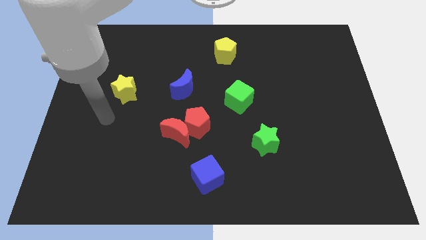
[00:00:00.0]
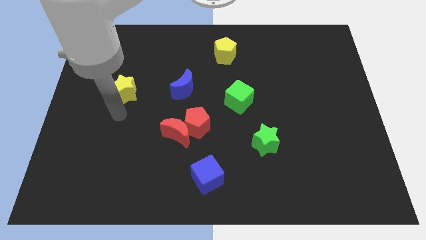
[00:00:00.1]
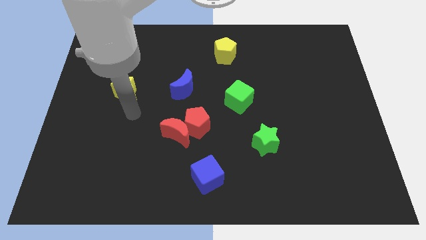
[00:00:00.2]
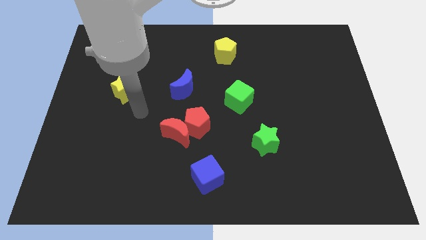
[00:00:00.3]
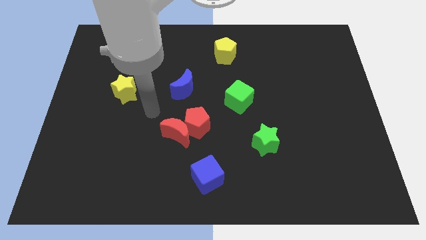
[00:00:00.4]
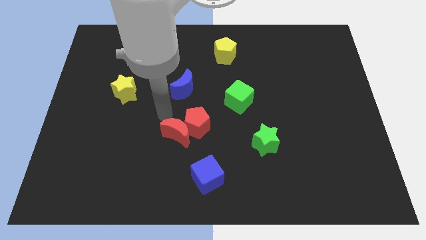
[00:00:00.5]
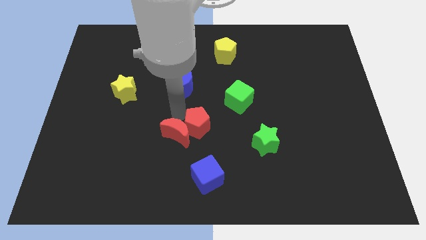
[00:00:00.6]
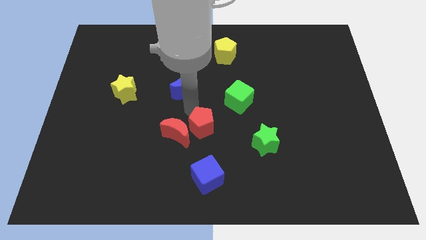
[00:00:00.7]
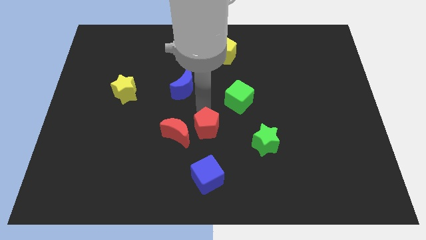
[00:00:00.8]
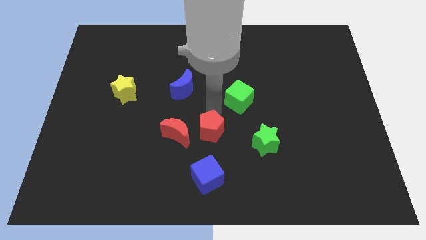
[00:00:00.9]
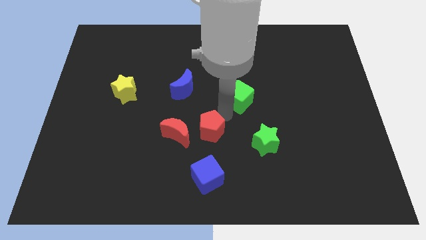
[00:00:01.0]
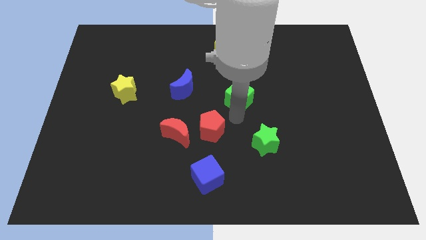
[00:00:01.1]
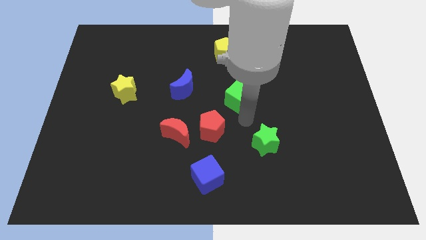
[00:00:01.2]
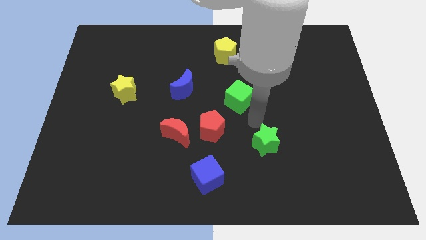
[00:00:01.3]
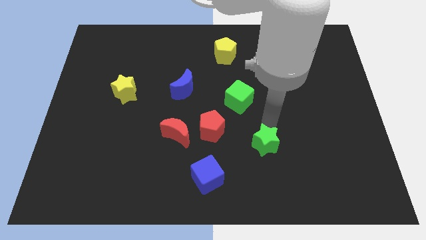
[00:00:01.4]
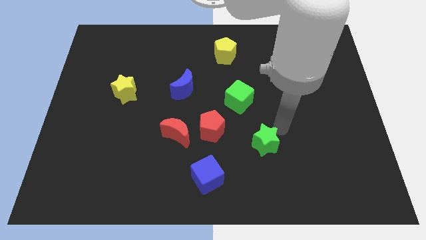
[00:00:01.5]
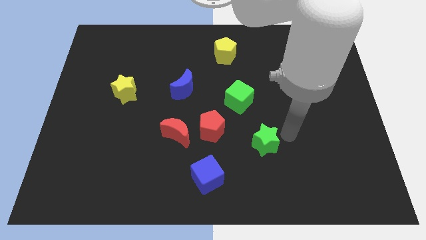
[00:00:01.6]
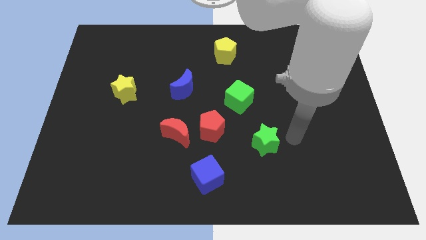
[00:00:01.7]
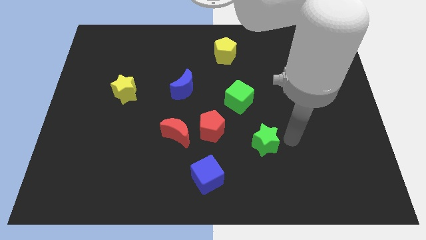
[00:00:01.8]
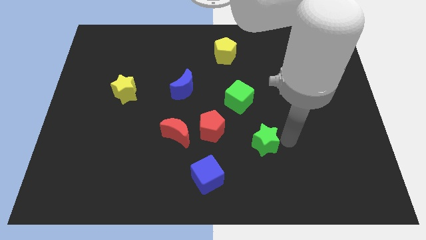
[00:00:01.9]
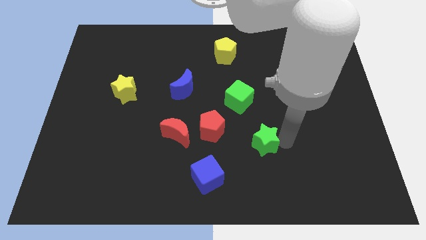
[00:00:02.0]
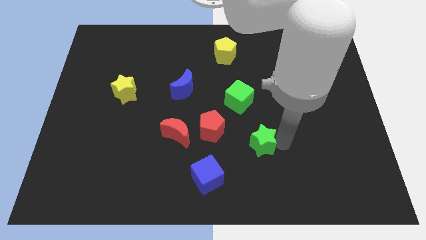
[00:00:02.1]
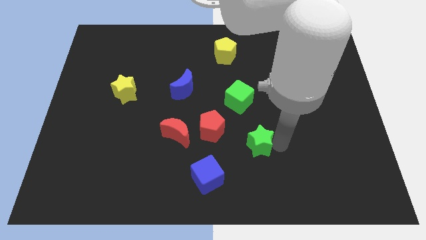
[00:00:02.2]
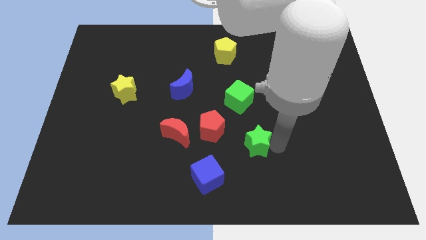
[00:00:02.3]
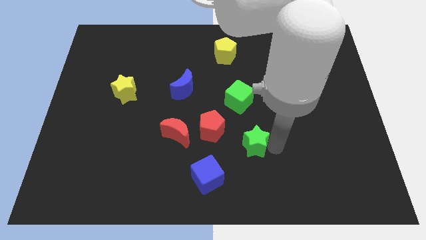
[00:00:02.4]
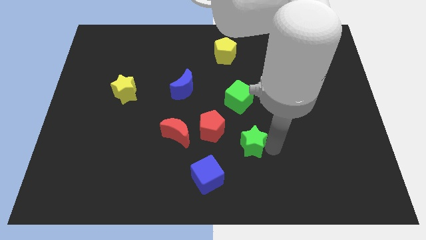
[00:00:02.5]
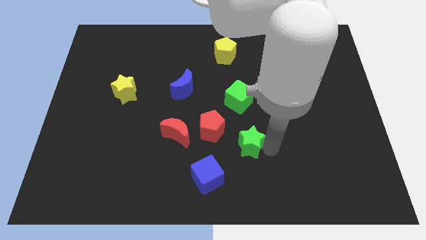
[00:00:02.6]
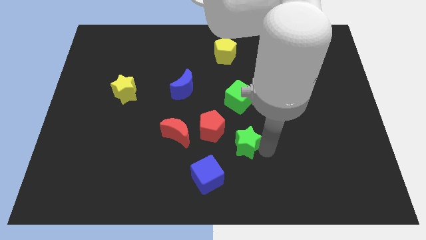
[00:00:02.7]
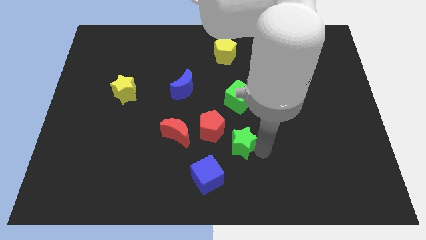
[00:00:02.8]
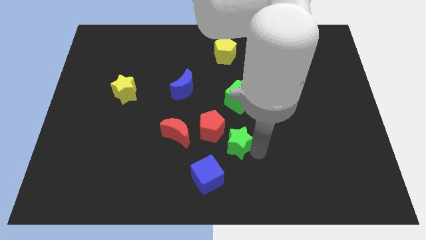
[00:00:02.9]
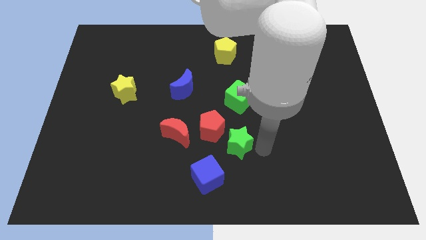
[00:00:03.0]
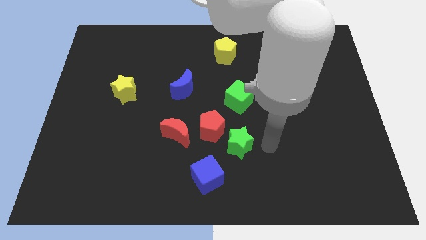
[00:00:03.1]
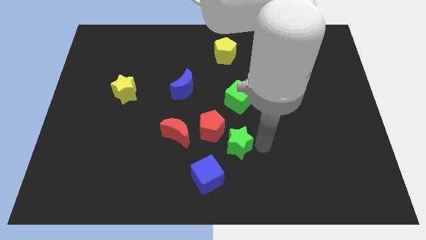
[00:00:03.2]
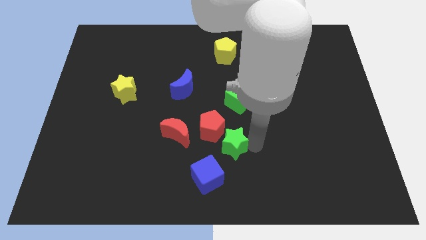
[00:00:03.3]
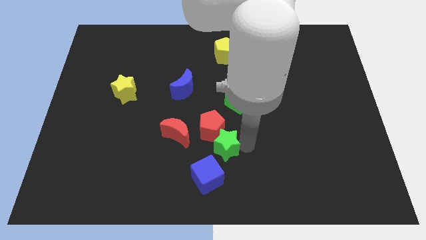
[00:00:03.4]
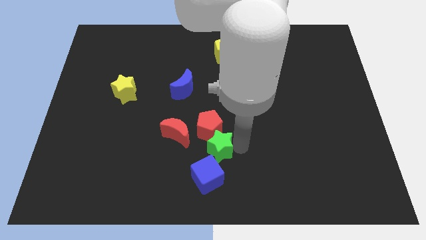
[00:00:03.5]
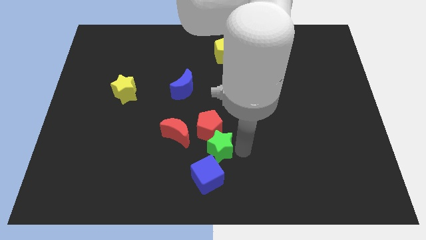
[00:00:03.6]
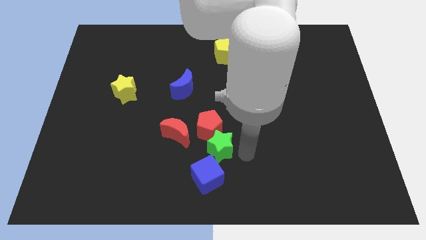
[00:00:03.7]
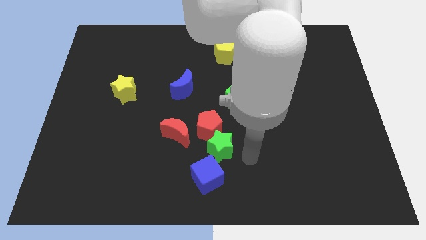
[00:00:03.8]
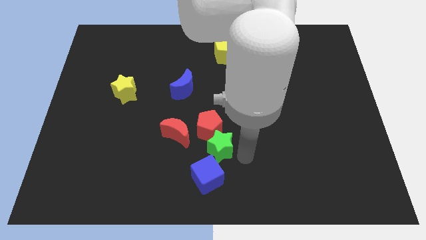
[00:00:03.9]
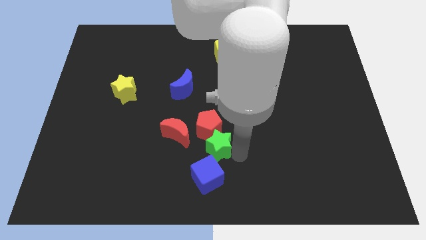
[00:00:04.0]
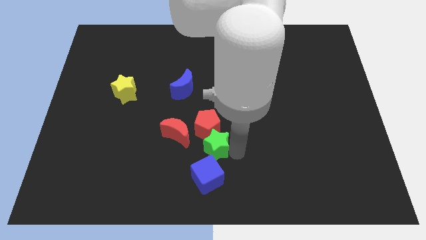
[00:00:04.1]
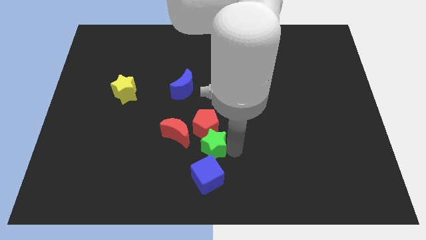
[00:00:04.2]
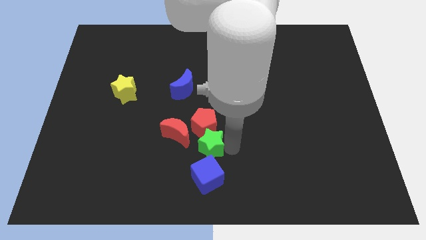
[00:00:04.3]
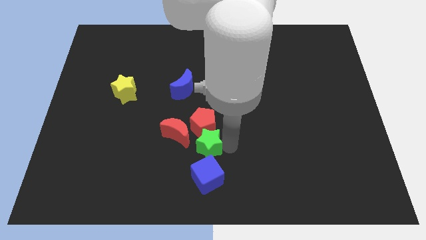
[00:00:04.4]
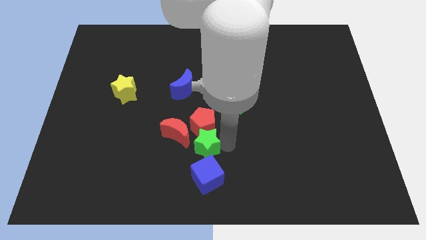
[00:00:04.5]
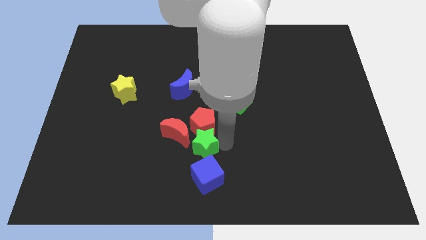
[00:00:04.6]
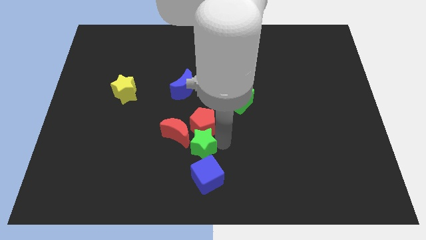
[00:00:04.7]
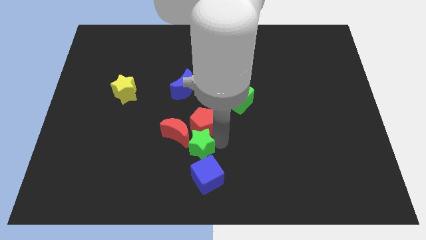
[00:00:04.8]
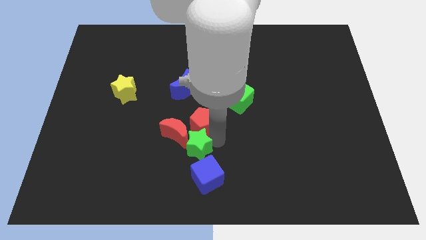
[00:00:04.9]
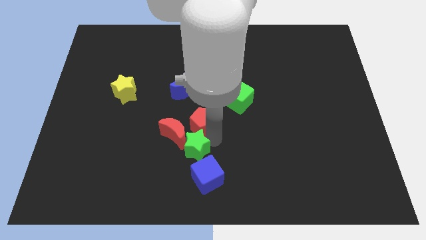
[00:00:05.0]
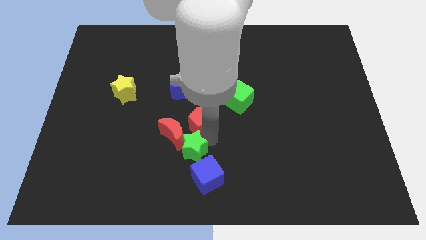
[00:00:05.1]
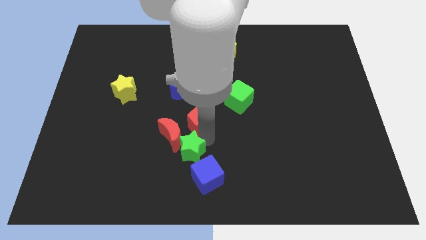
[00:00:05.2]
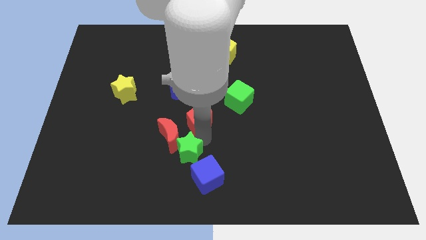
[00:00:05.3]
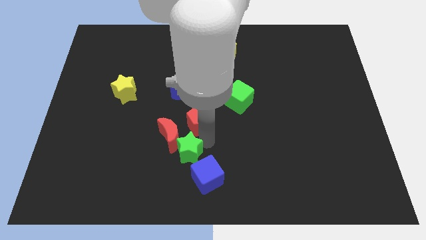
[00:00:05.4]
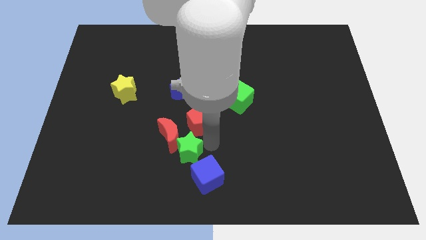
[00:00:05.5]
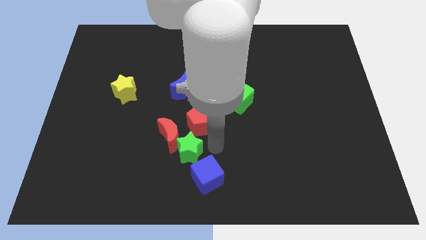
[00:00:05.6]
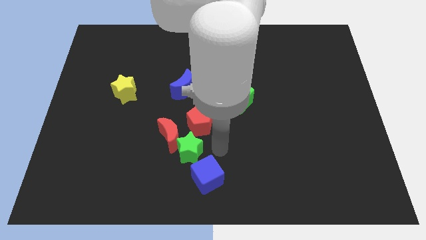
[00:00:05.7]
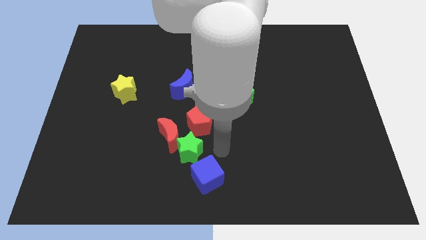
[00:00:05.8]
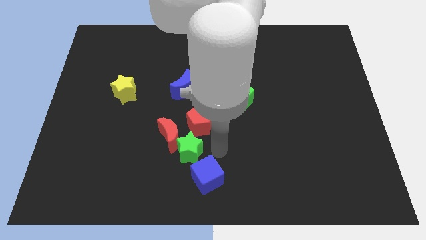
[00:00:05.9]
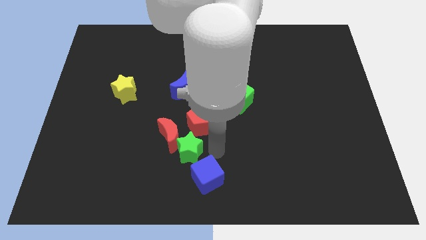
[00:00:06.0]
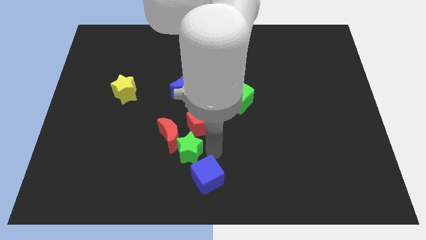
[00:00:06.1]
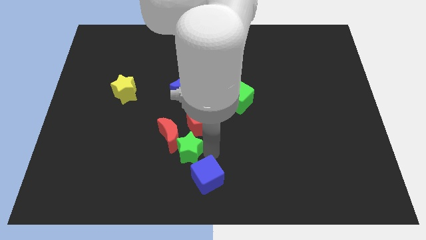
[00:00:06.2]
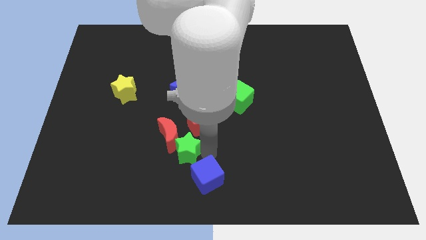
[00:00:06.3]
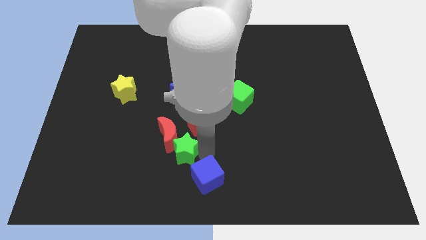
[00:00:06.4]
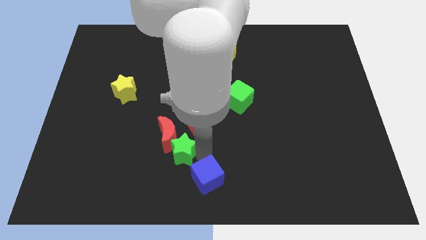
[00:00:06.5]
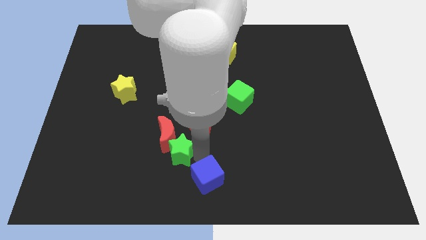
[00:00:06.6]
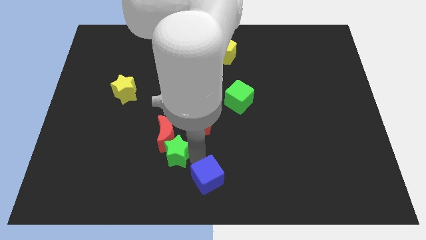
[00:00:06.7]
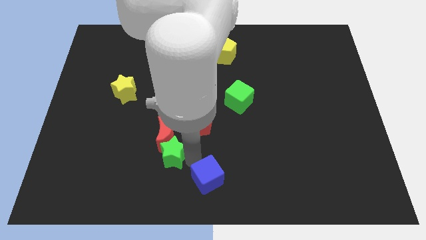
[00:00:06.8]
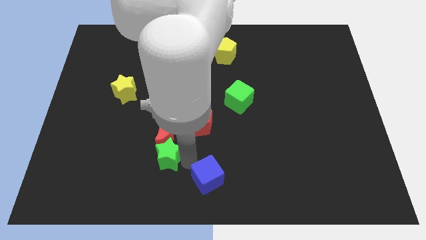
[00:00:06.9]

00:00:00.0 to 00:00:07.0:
push the green star to the left

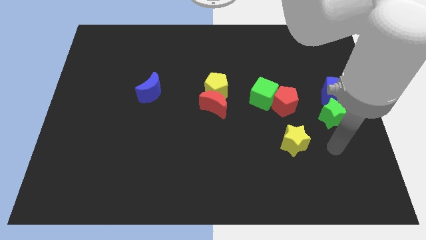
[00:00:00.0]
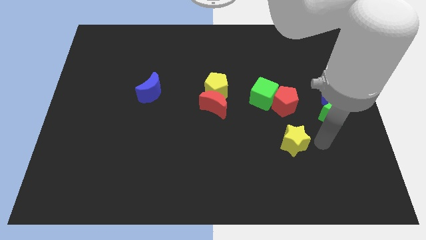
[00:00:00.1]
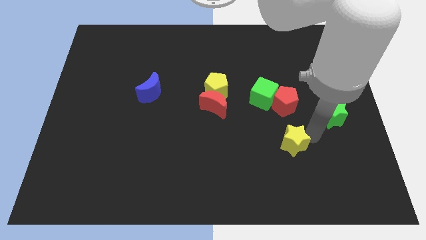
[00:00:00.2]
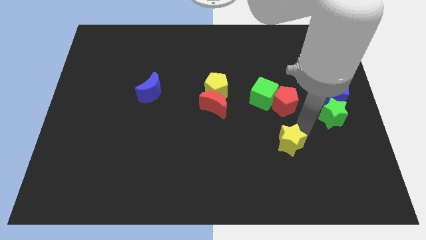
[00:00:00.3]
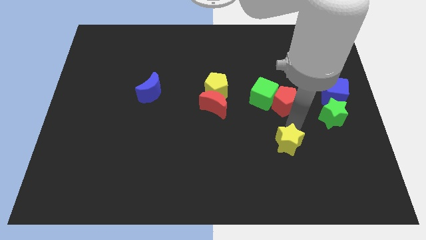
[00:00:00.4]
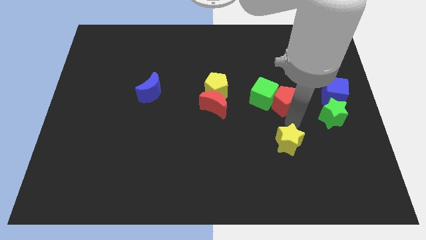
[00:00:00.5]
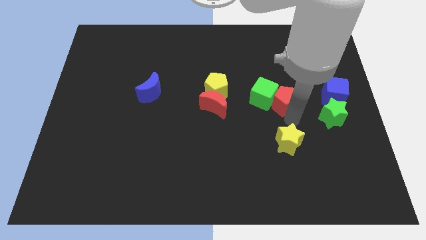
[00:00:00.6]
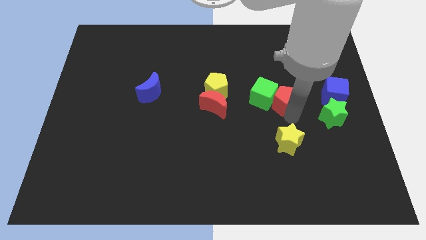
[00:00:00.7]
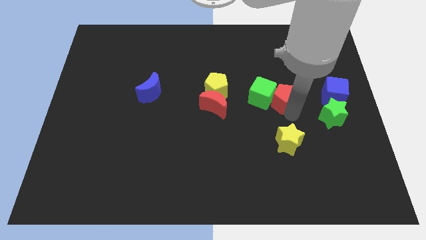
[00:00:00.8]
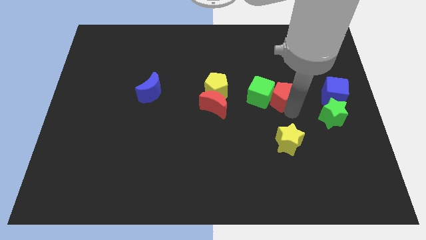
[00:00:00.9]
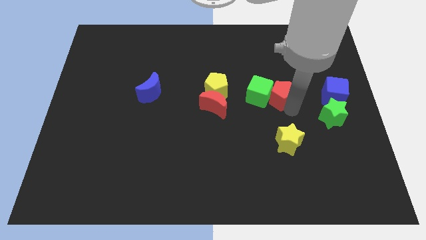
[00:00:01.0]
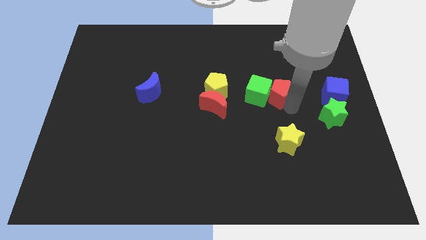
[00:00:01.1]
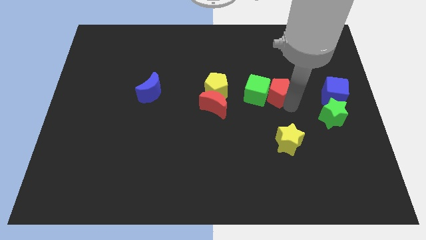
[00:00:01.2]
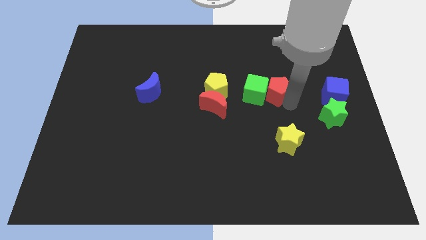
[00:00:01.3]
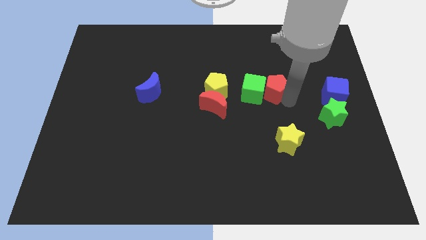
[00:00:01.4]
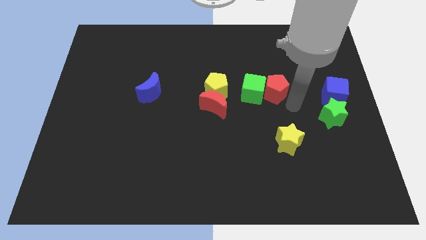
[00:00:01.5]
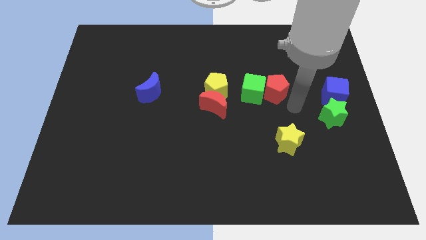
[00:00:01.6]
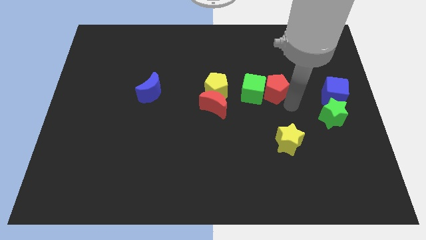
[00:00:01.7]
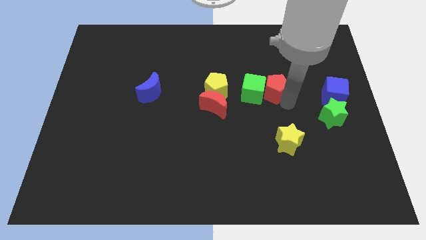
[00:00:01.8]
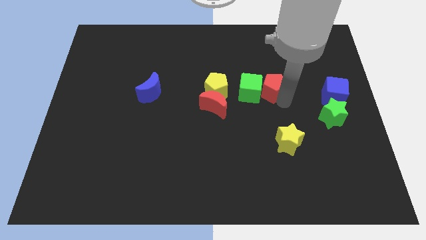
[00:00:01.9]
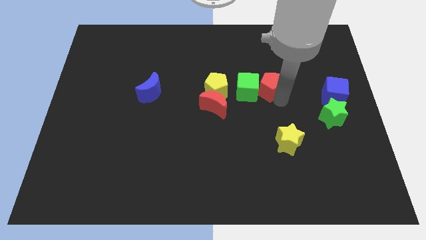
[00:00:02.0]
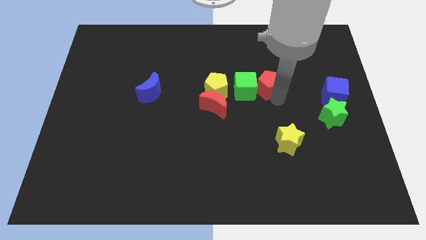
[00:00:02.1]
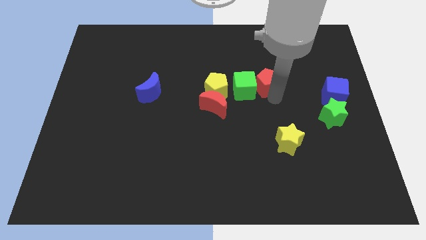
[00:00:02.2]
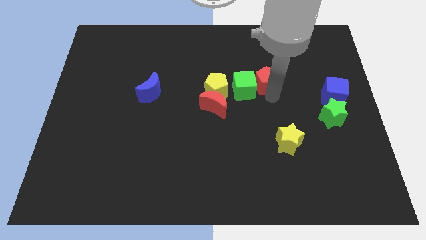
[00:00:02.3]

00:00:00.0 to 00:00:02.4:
push the red pentagon slightly upwards and then to the left
